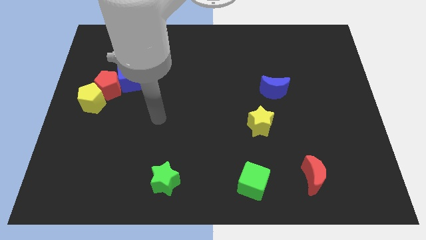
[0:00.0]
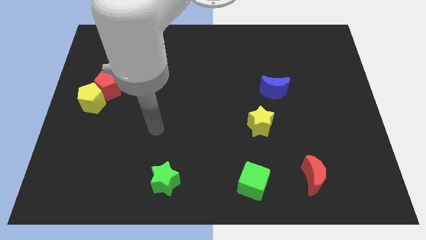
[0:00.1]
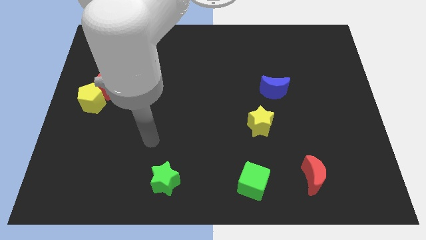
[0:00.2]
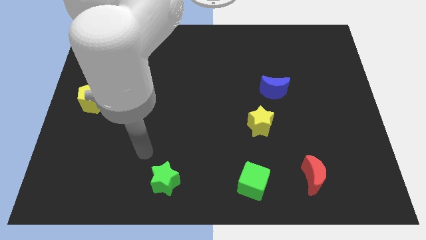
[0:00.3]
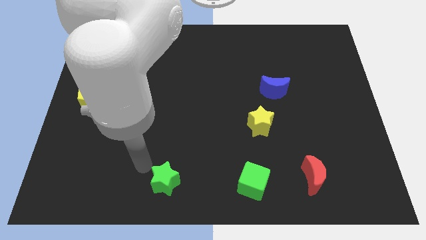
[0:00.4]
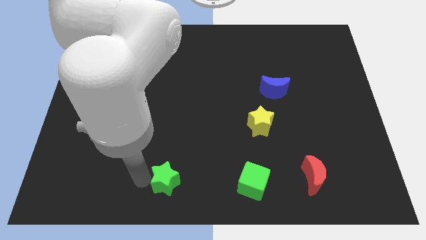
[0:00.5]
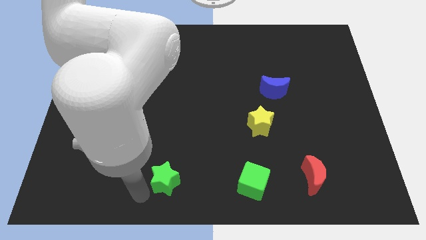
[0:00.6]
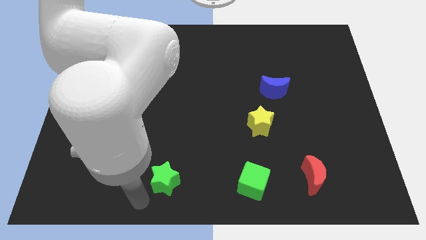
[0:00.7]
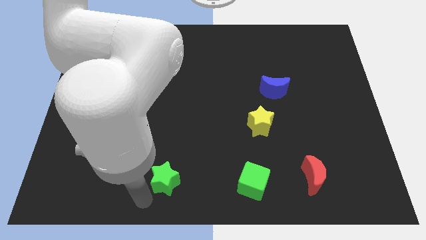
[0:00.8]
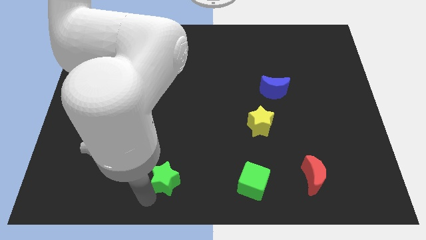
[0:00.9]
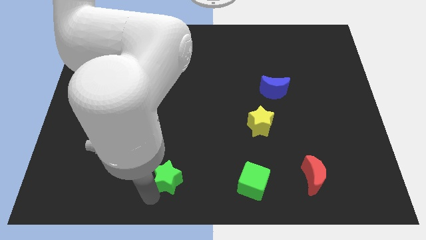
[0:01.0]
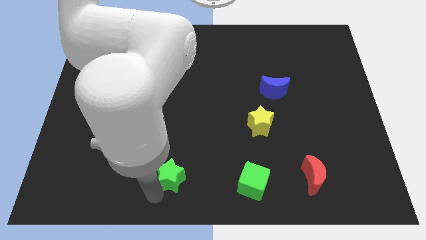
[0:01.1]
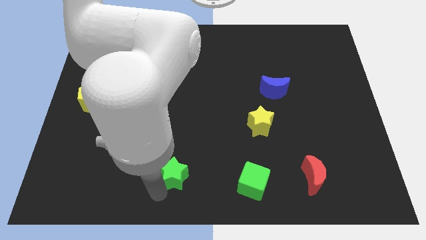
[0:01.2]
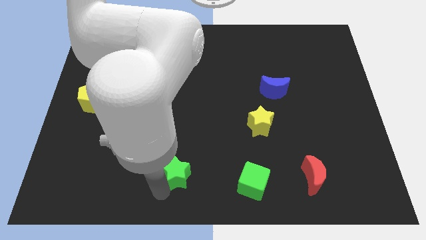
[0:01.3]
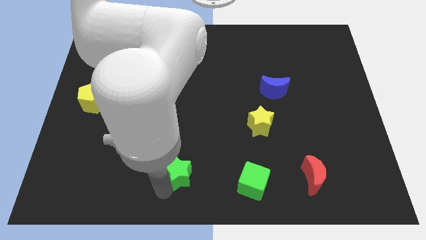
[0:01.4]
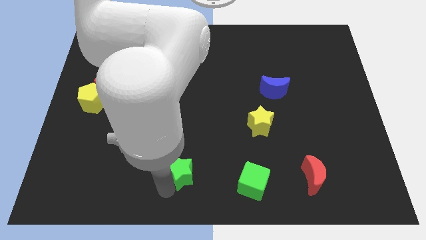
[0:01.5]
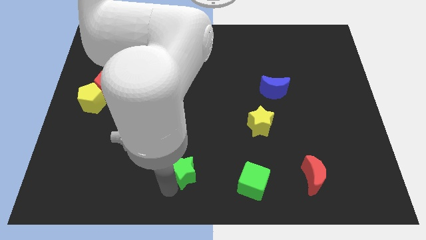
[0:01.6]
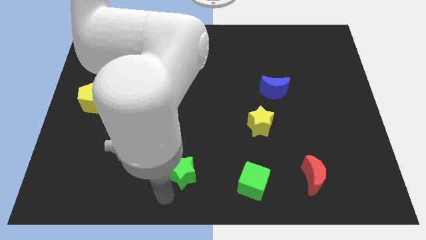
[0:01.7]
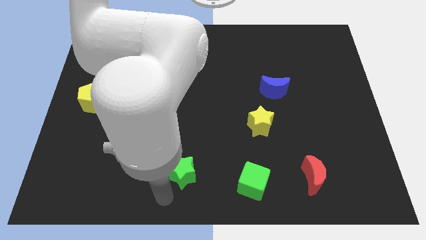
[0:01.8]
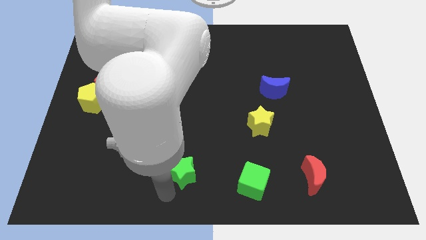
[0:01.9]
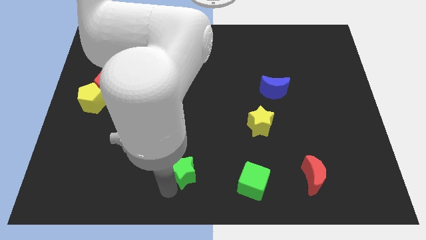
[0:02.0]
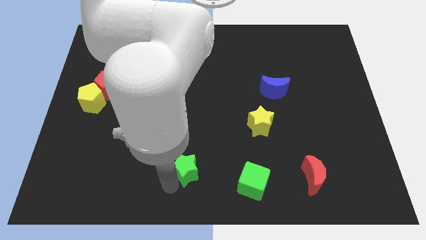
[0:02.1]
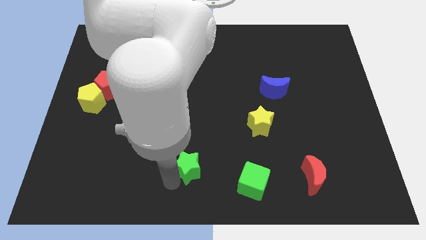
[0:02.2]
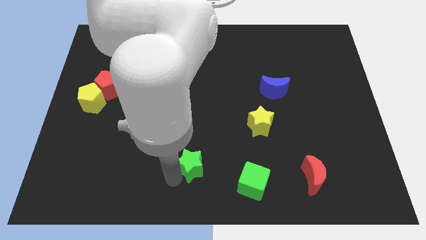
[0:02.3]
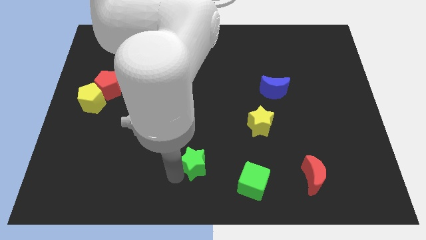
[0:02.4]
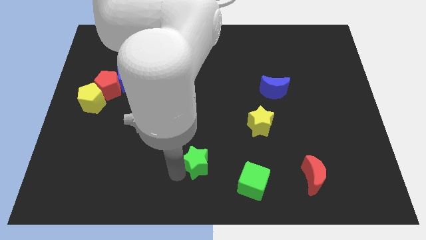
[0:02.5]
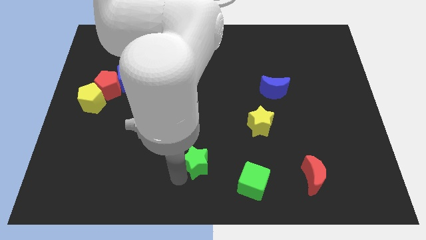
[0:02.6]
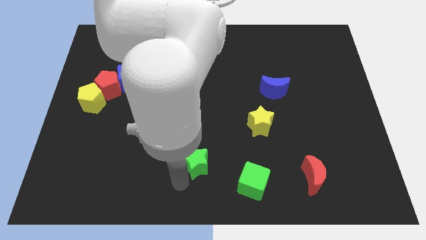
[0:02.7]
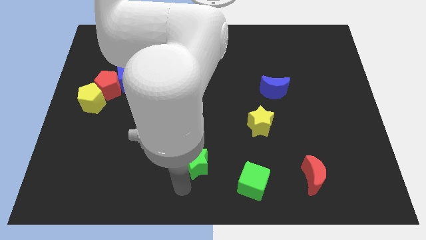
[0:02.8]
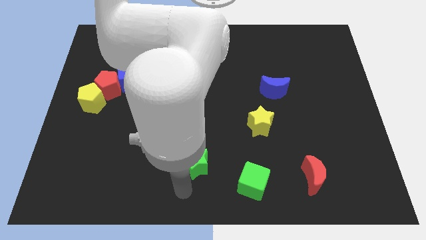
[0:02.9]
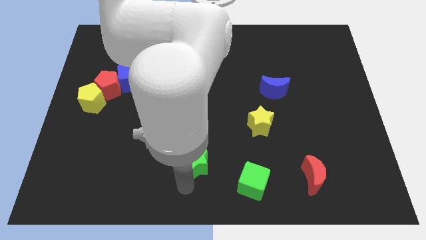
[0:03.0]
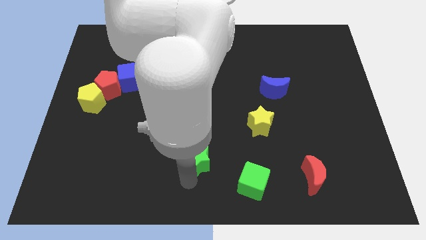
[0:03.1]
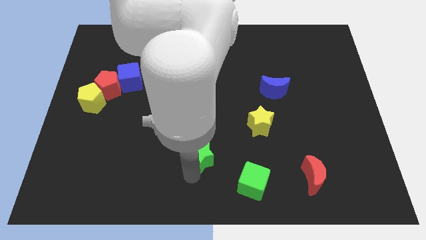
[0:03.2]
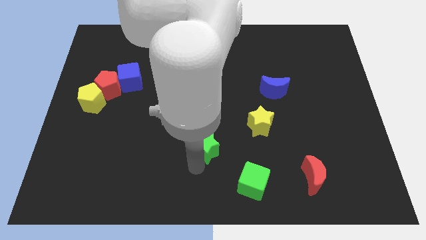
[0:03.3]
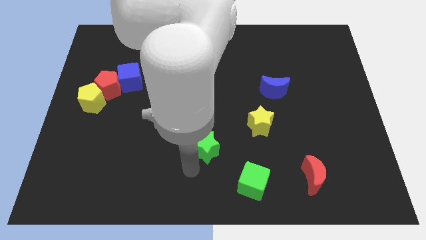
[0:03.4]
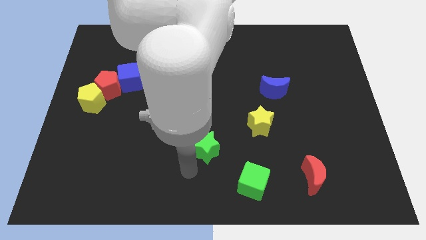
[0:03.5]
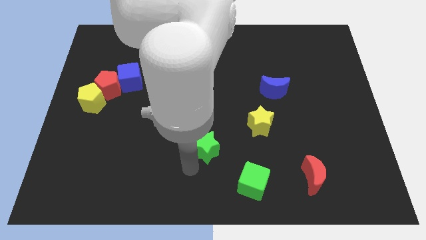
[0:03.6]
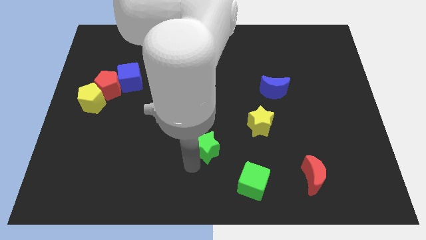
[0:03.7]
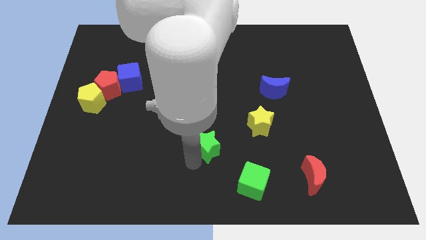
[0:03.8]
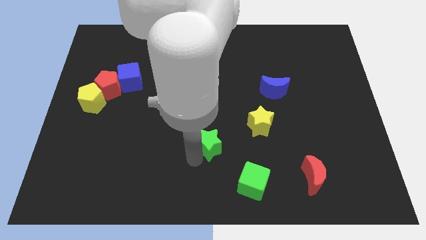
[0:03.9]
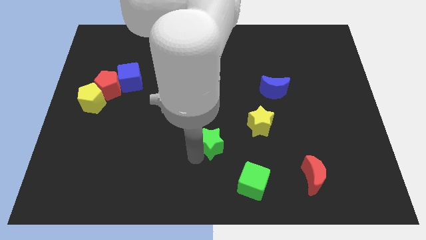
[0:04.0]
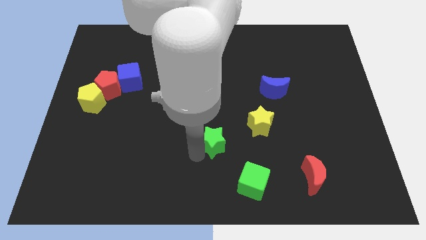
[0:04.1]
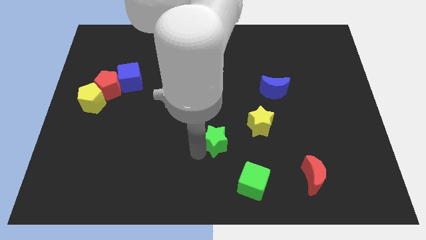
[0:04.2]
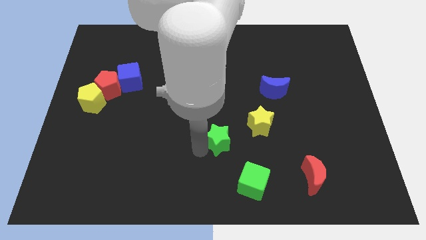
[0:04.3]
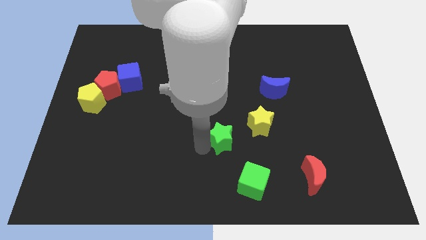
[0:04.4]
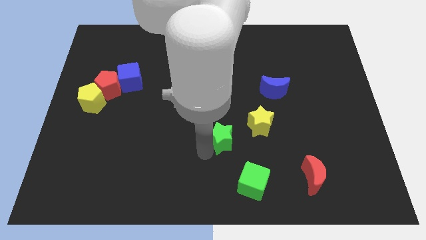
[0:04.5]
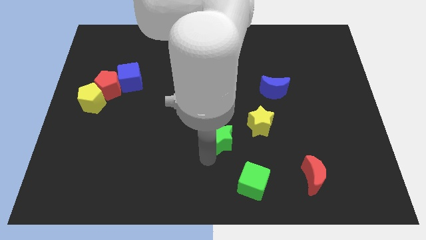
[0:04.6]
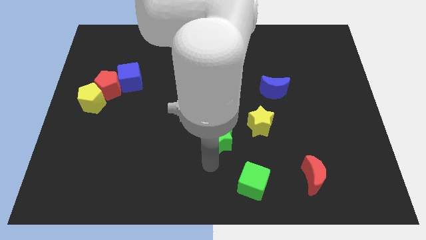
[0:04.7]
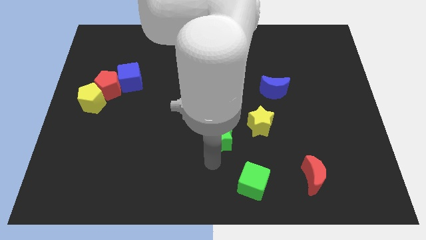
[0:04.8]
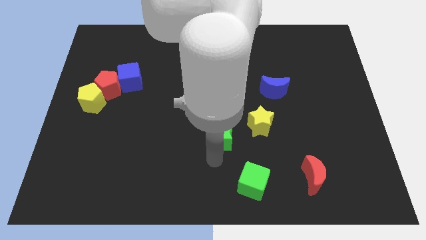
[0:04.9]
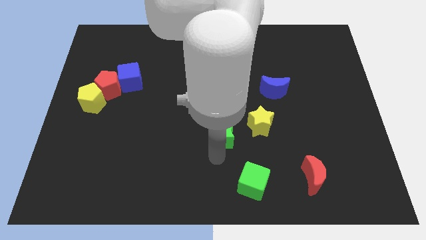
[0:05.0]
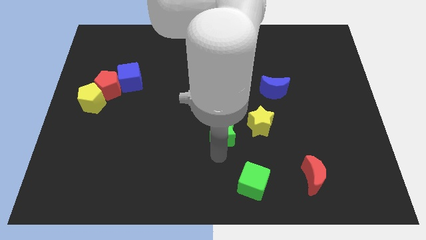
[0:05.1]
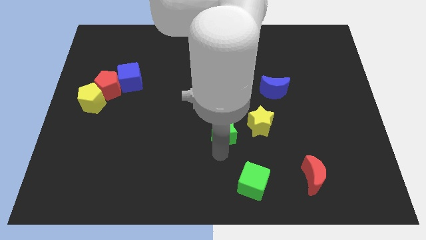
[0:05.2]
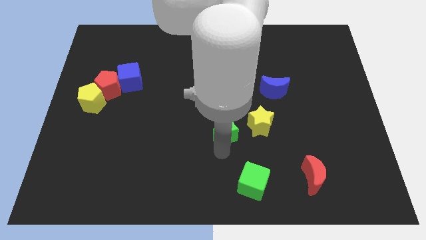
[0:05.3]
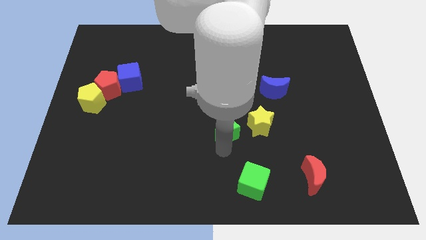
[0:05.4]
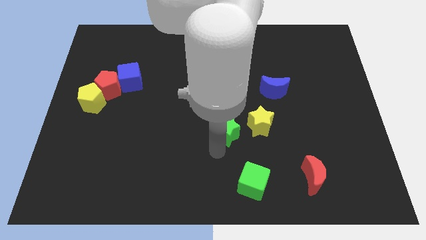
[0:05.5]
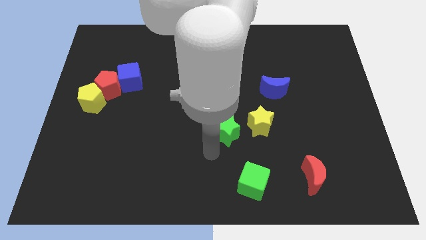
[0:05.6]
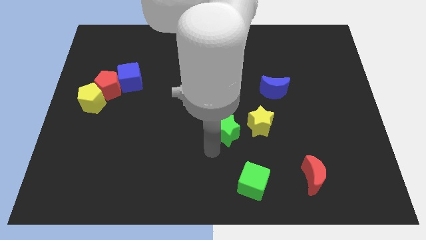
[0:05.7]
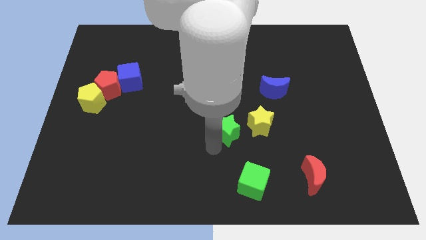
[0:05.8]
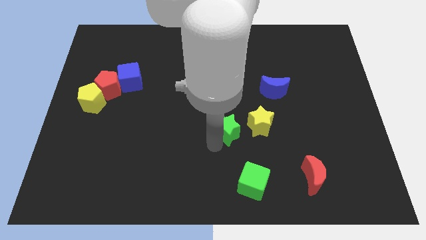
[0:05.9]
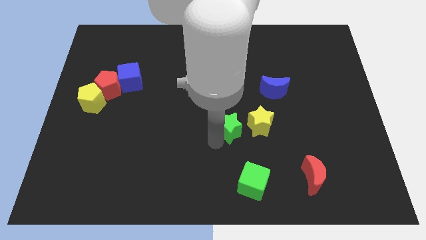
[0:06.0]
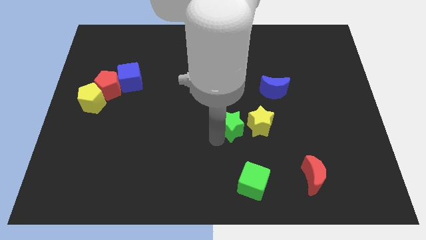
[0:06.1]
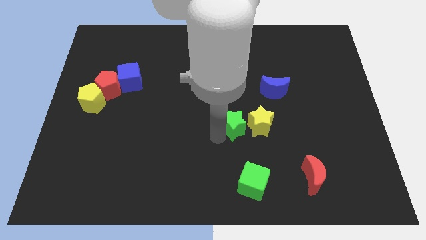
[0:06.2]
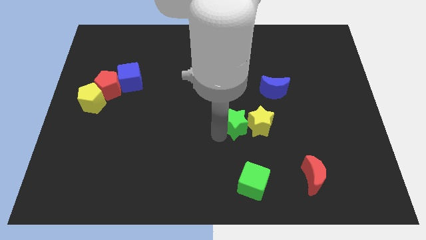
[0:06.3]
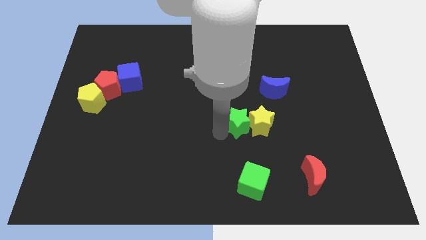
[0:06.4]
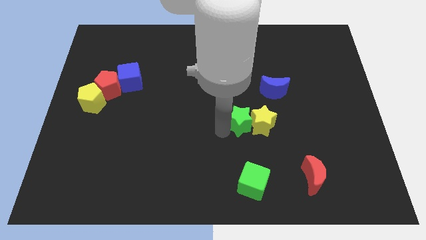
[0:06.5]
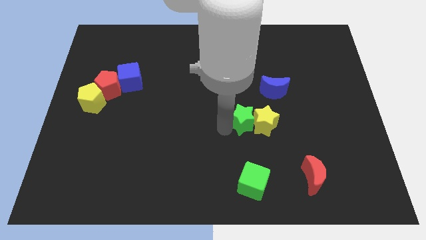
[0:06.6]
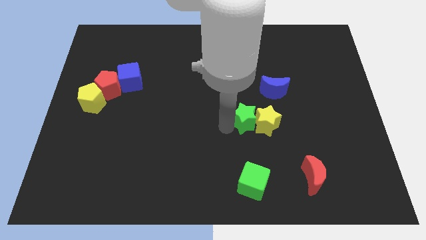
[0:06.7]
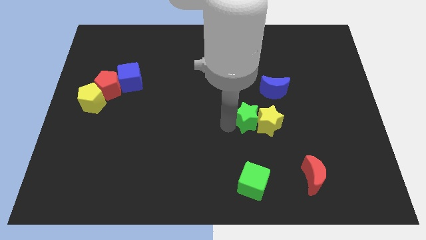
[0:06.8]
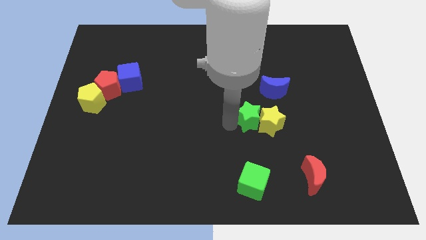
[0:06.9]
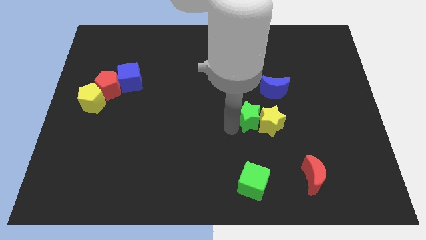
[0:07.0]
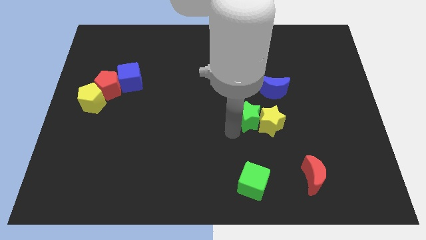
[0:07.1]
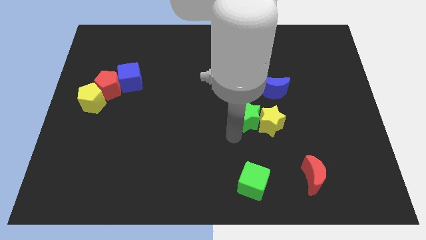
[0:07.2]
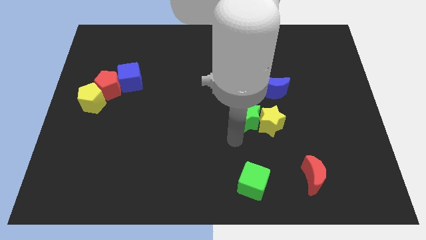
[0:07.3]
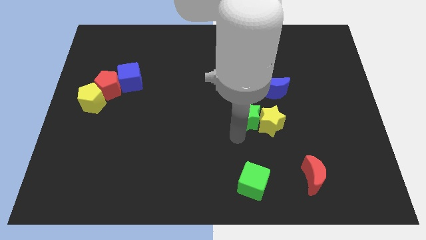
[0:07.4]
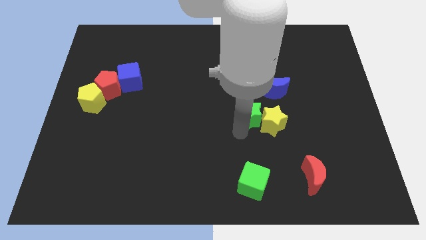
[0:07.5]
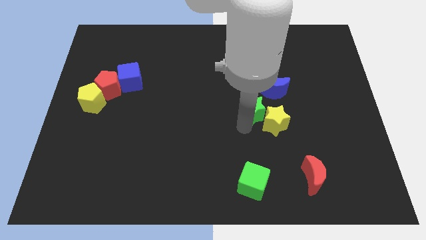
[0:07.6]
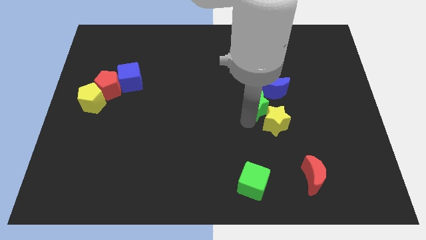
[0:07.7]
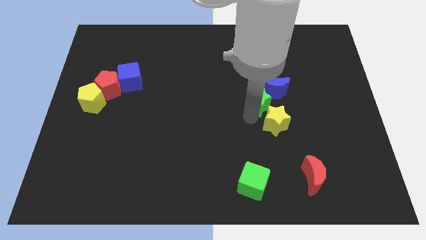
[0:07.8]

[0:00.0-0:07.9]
move the green star next to the blue moon
